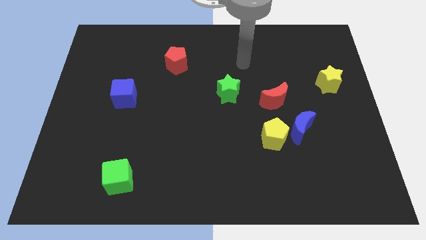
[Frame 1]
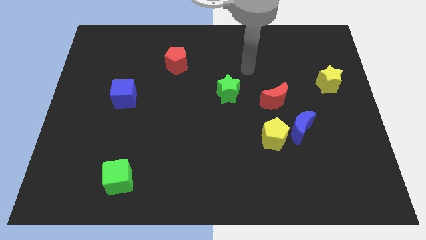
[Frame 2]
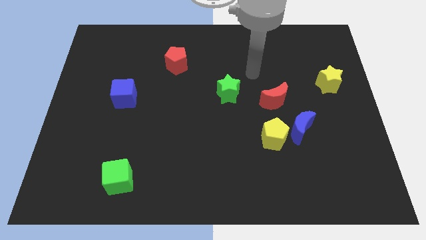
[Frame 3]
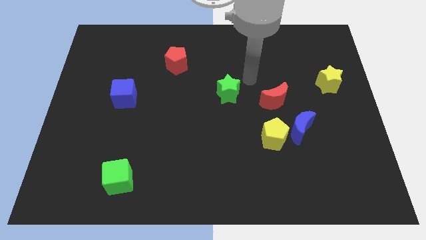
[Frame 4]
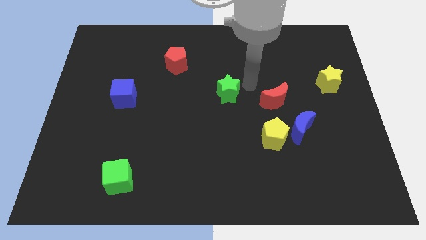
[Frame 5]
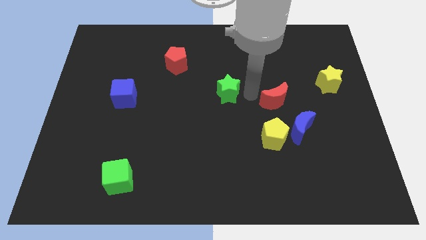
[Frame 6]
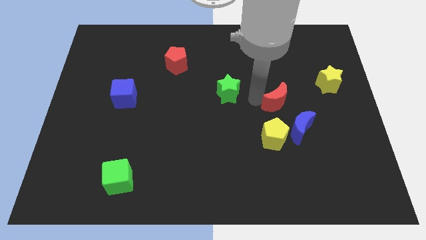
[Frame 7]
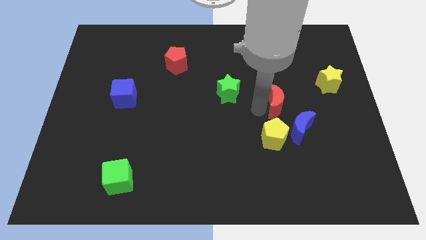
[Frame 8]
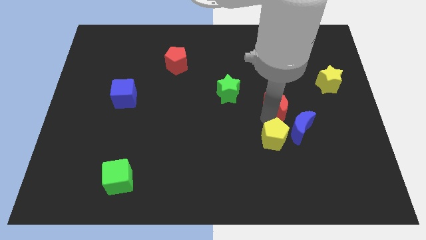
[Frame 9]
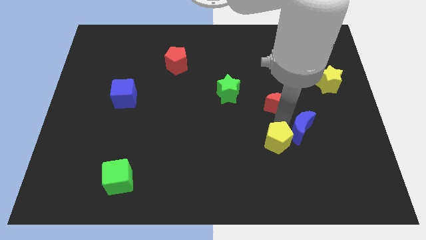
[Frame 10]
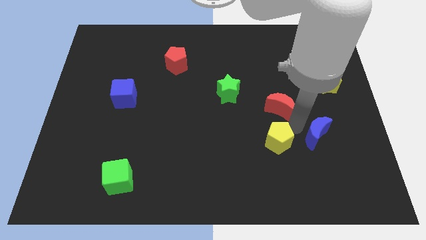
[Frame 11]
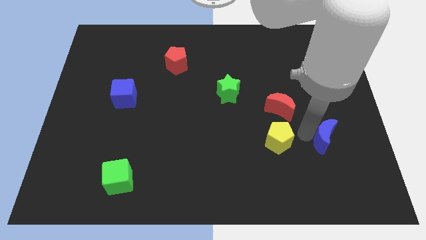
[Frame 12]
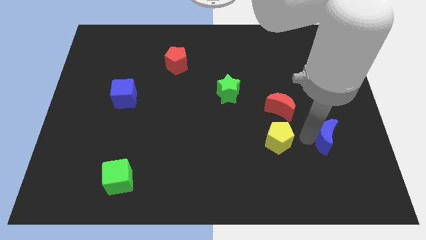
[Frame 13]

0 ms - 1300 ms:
pull the yellow pentagon apart from the blue moon

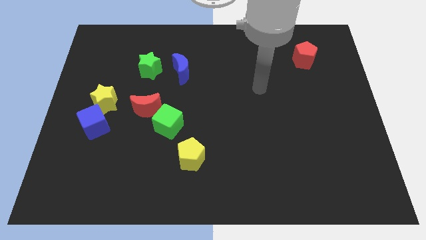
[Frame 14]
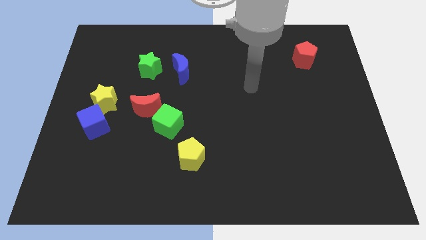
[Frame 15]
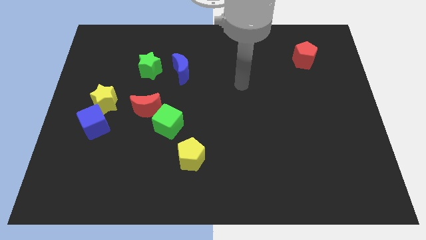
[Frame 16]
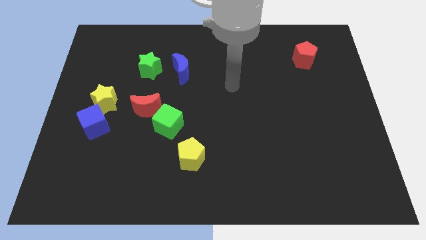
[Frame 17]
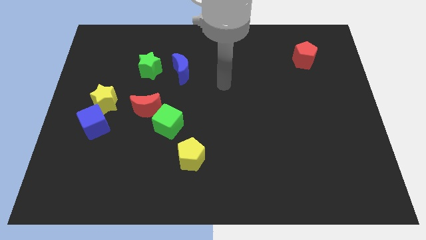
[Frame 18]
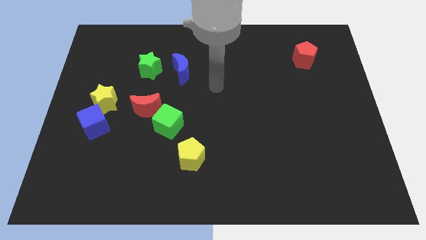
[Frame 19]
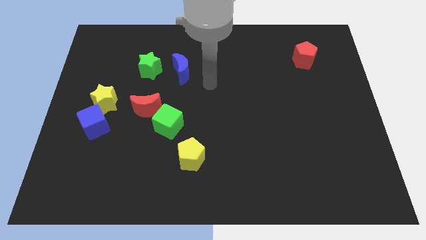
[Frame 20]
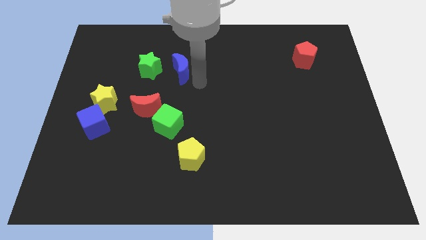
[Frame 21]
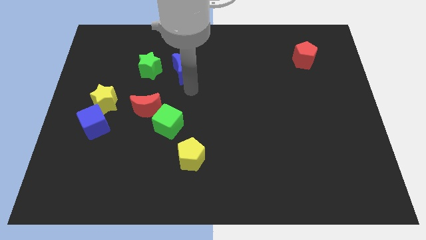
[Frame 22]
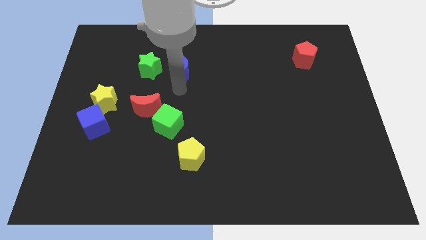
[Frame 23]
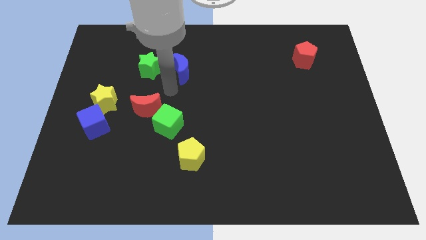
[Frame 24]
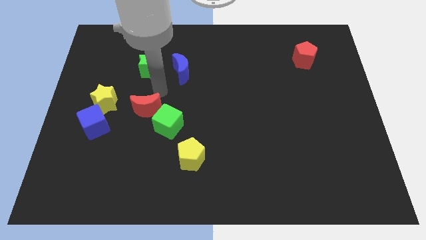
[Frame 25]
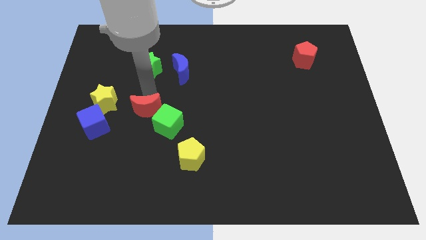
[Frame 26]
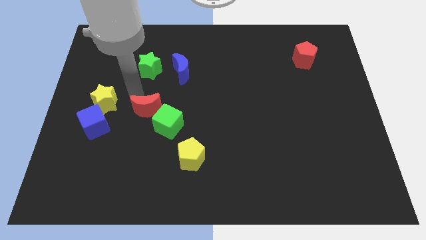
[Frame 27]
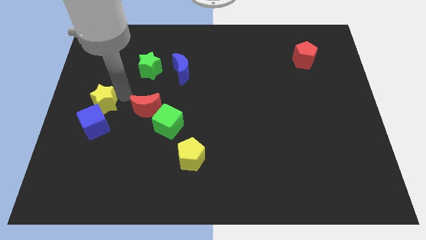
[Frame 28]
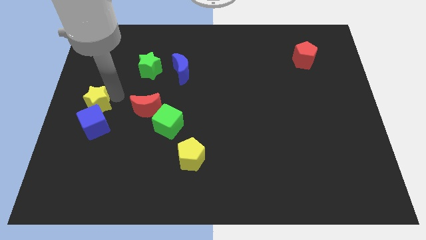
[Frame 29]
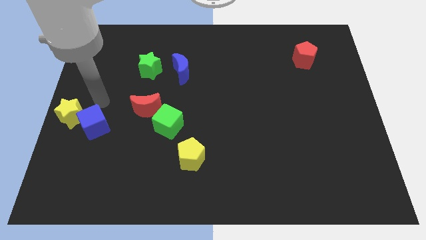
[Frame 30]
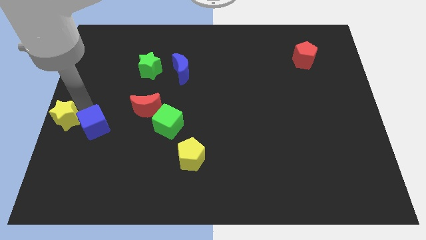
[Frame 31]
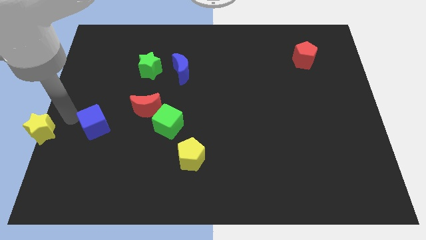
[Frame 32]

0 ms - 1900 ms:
move the blue cube away from the yellow star

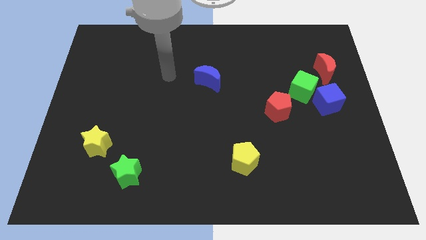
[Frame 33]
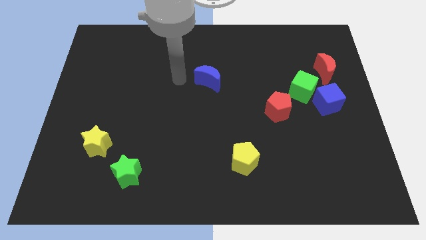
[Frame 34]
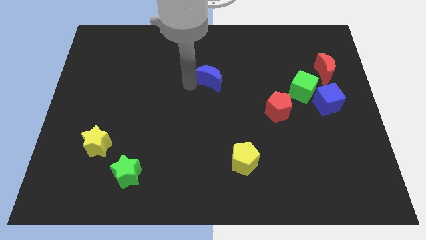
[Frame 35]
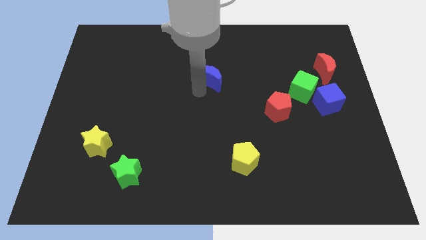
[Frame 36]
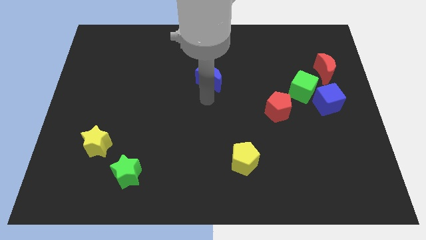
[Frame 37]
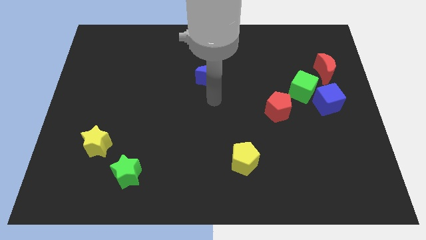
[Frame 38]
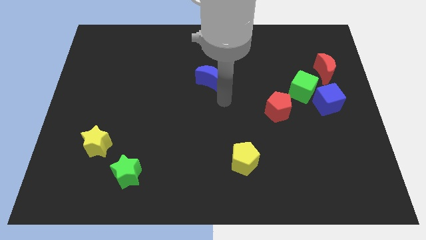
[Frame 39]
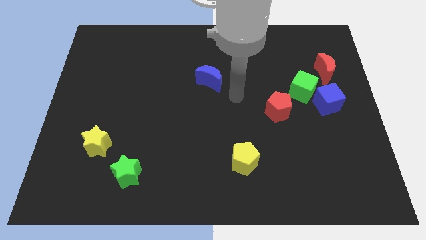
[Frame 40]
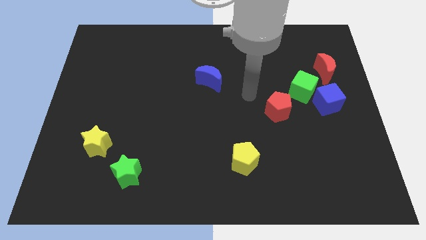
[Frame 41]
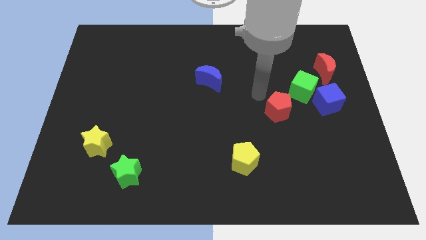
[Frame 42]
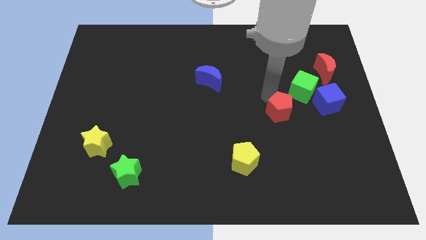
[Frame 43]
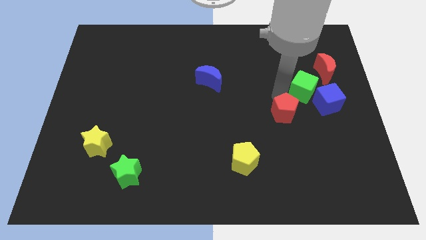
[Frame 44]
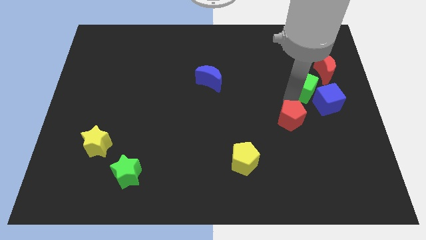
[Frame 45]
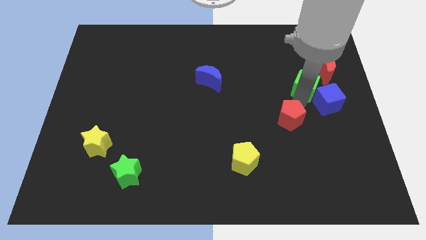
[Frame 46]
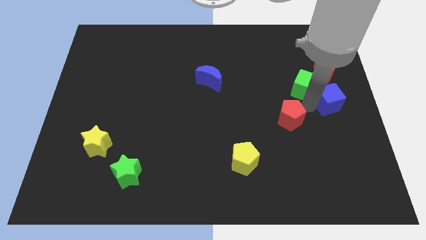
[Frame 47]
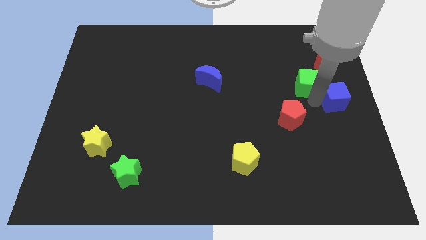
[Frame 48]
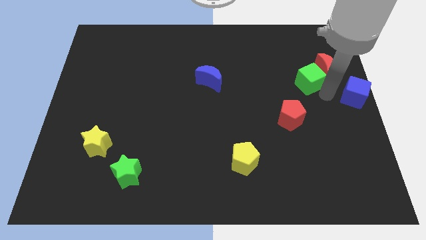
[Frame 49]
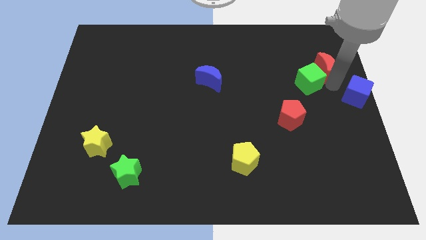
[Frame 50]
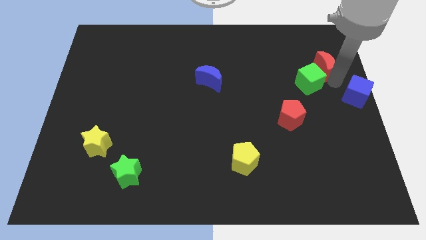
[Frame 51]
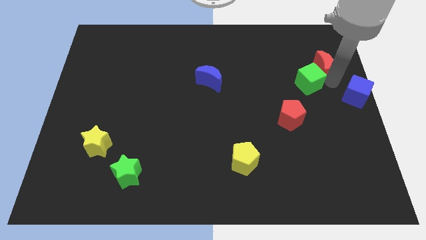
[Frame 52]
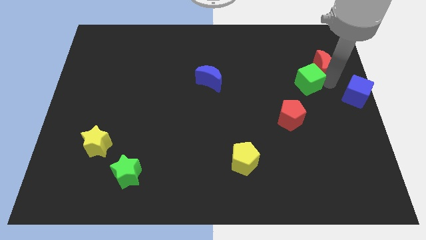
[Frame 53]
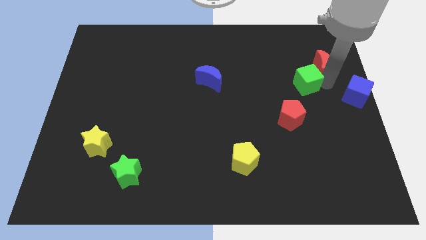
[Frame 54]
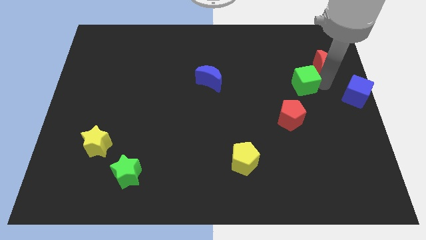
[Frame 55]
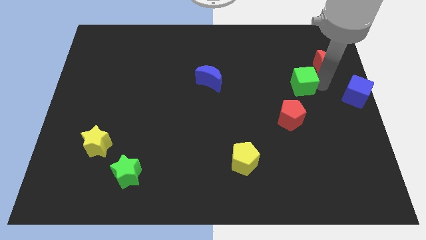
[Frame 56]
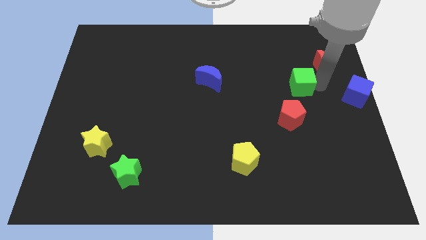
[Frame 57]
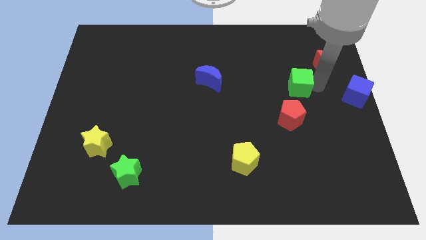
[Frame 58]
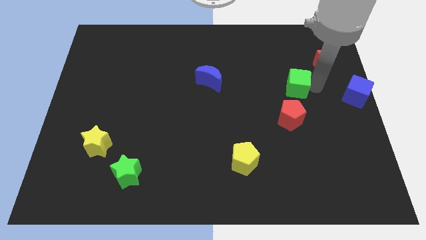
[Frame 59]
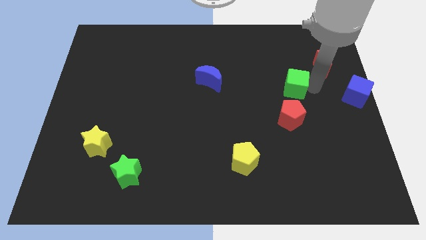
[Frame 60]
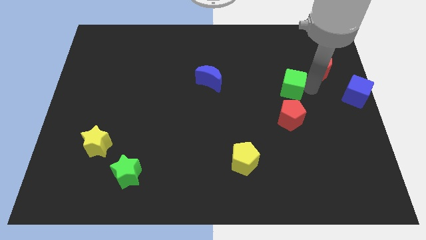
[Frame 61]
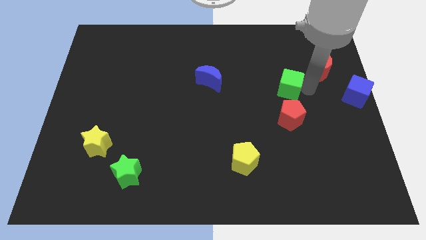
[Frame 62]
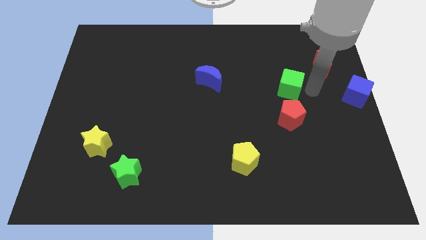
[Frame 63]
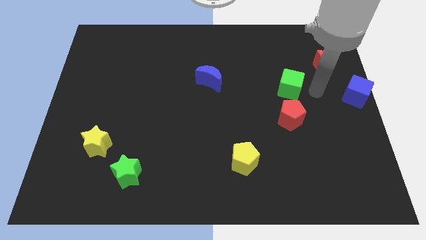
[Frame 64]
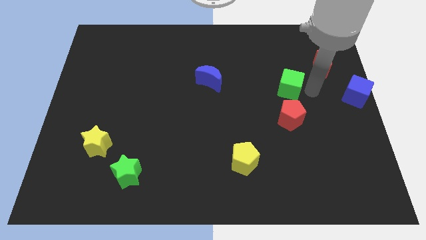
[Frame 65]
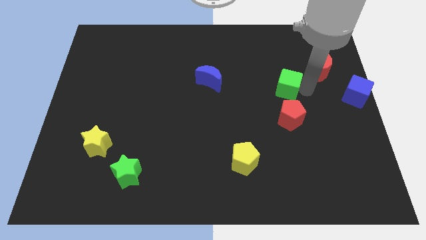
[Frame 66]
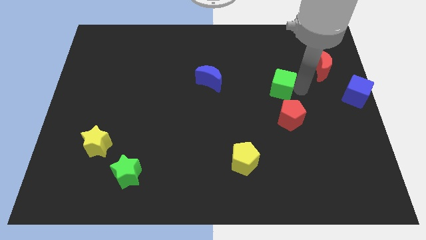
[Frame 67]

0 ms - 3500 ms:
pull the green cube apart from the group

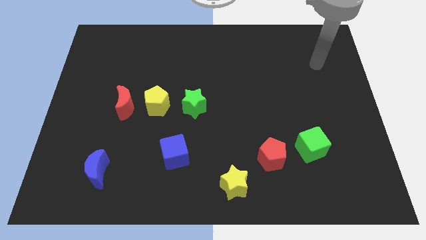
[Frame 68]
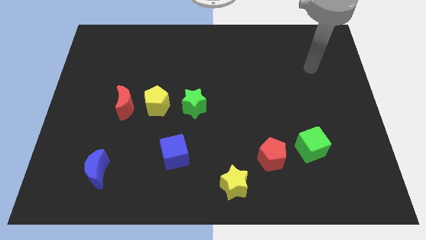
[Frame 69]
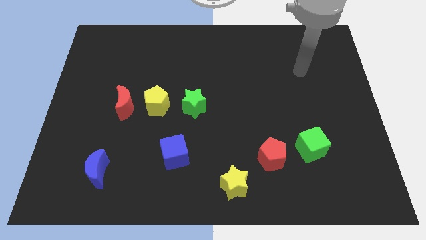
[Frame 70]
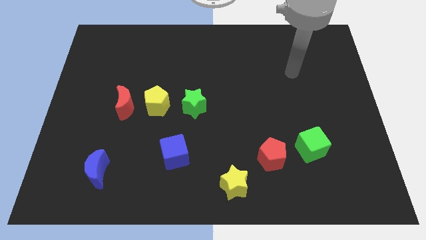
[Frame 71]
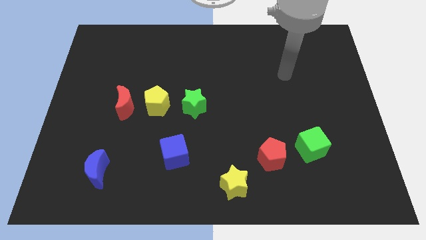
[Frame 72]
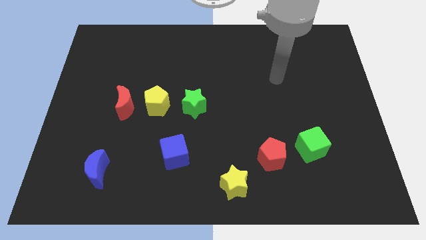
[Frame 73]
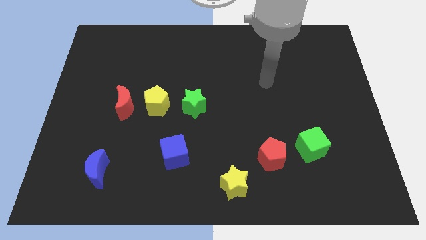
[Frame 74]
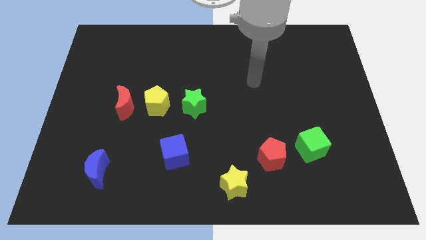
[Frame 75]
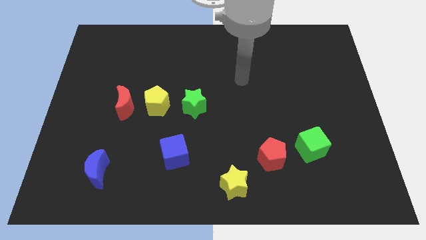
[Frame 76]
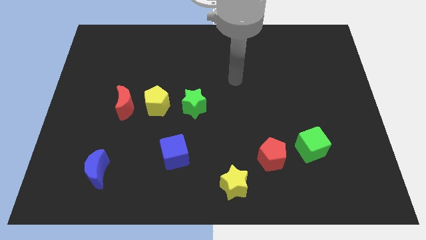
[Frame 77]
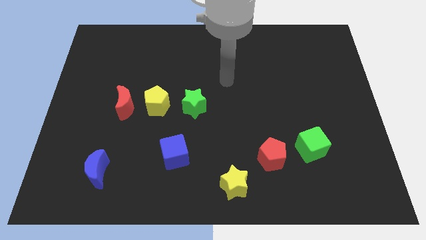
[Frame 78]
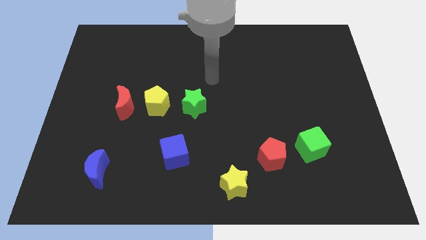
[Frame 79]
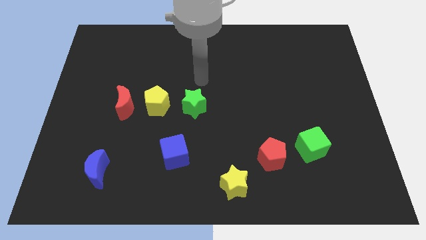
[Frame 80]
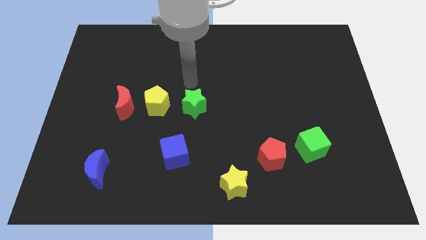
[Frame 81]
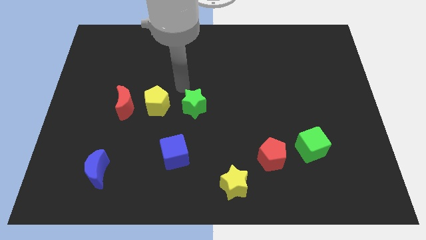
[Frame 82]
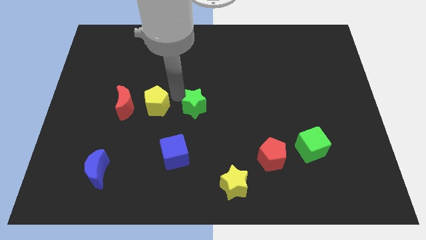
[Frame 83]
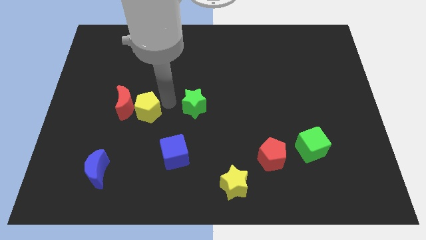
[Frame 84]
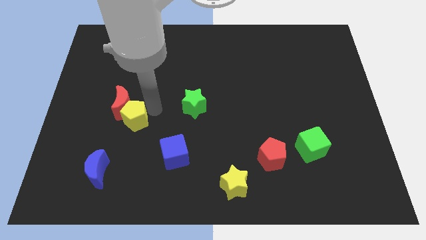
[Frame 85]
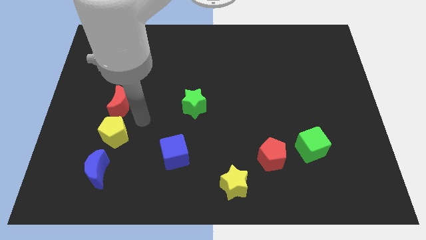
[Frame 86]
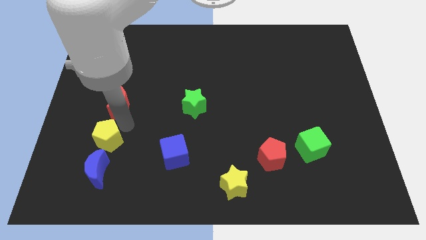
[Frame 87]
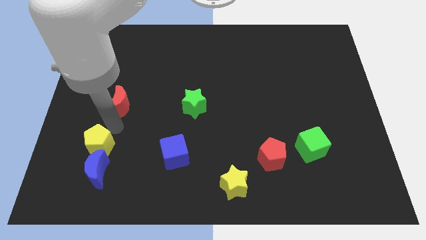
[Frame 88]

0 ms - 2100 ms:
move the red moon away from the yellow pentagon

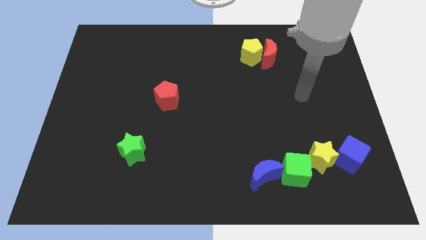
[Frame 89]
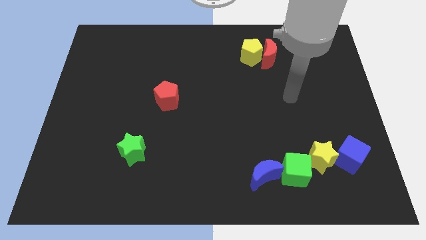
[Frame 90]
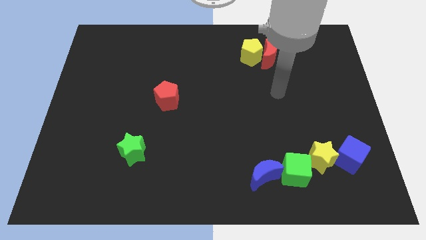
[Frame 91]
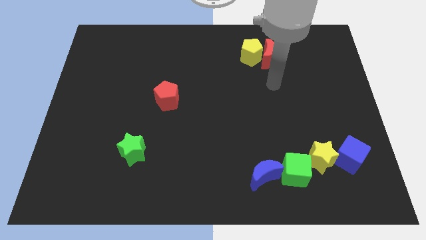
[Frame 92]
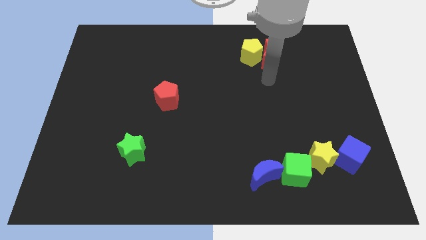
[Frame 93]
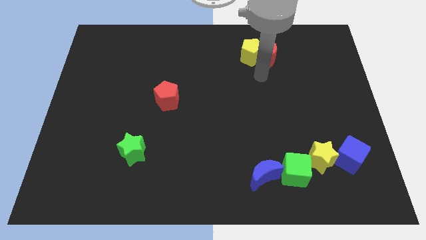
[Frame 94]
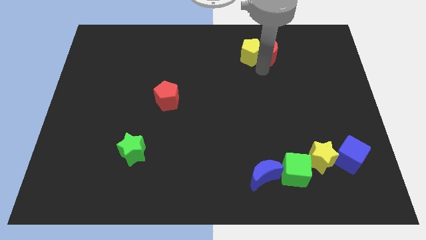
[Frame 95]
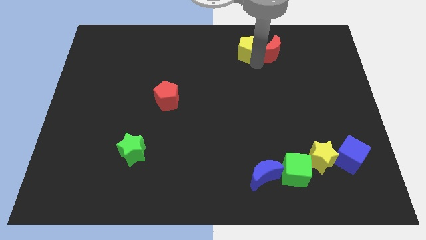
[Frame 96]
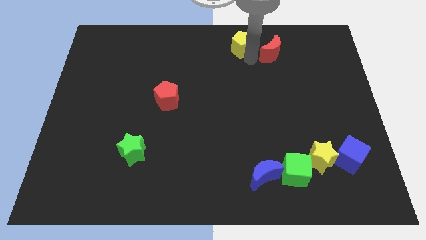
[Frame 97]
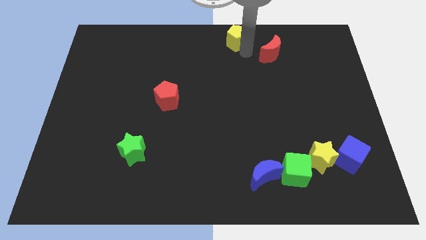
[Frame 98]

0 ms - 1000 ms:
pull the red moon apart from the yellow pentagon
